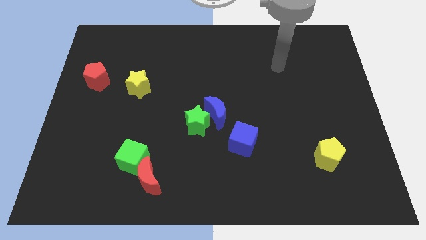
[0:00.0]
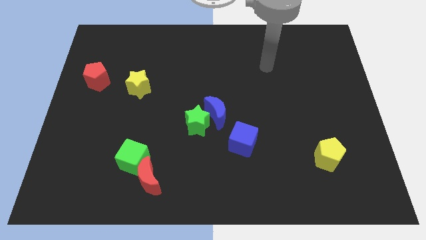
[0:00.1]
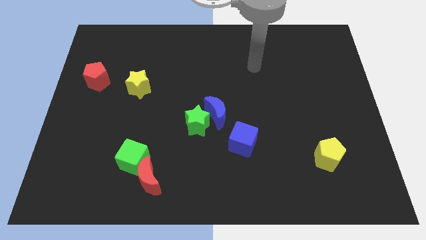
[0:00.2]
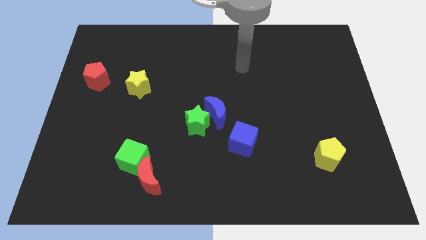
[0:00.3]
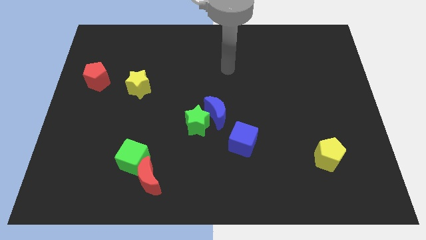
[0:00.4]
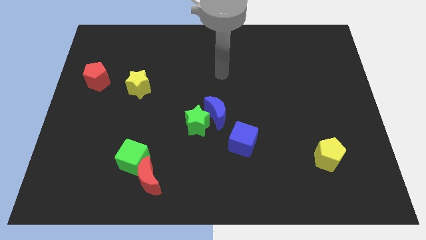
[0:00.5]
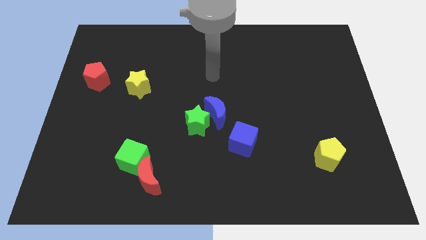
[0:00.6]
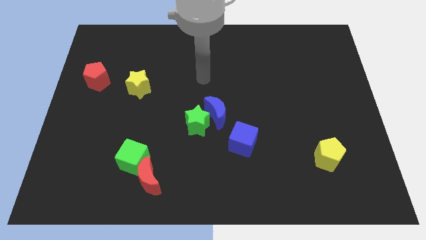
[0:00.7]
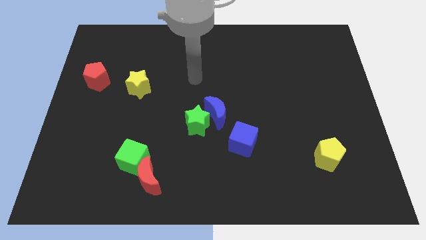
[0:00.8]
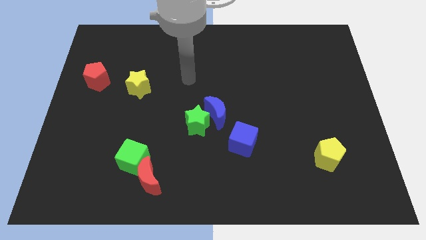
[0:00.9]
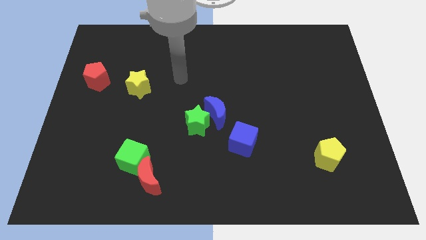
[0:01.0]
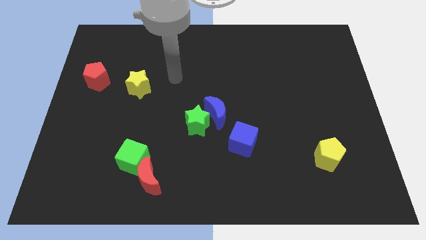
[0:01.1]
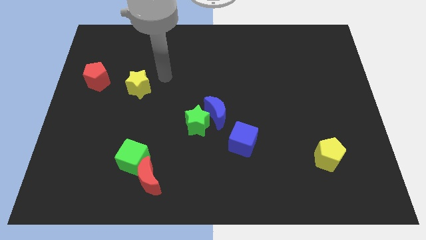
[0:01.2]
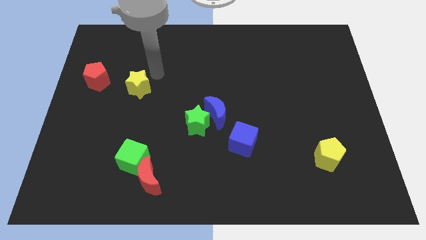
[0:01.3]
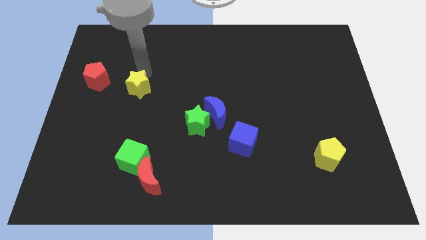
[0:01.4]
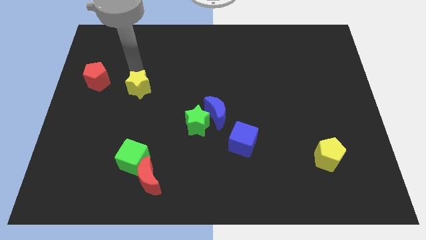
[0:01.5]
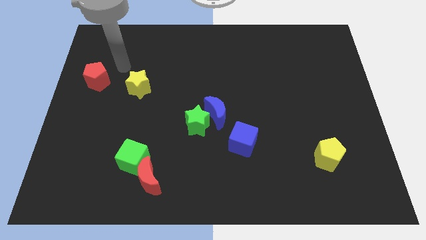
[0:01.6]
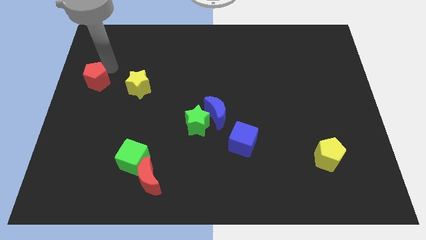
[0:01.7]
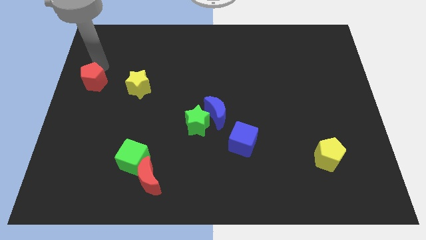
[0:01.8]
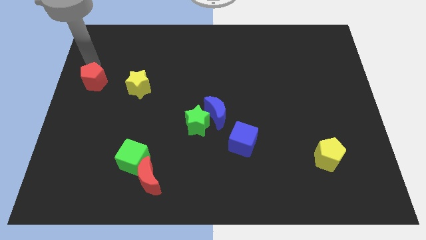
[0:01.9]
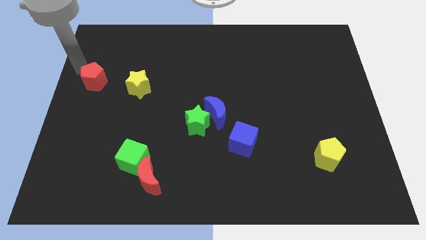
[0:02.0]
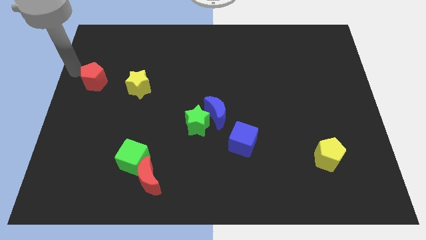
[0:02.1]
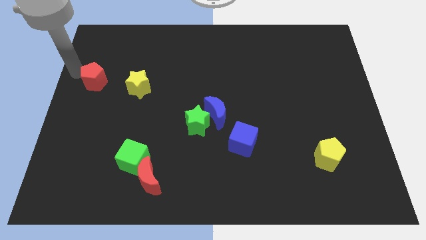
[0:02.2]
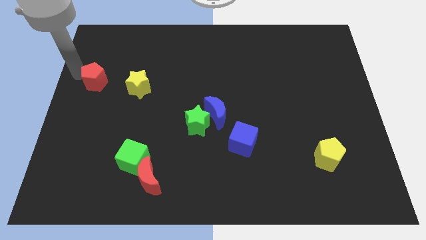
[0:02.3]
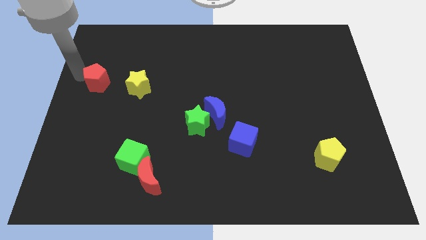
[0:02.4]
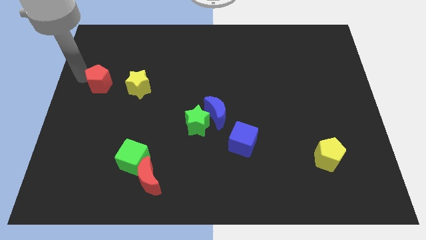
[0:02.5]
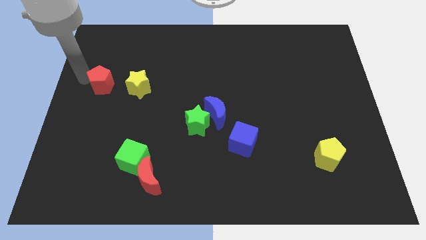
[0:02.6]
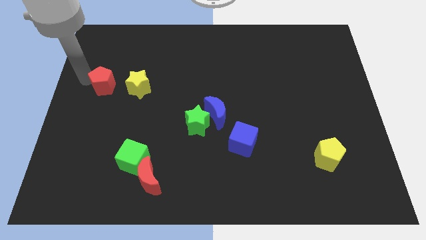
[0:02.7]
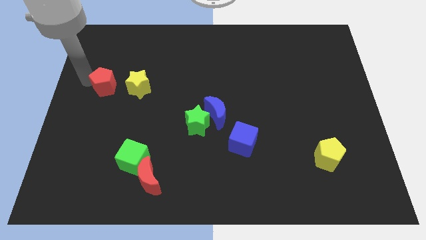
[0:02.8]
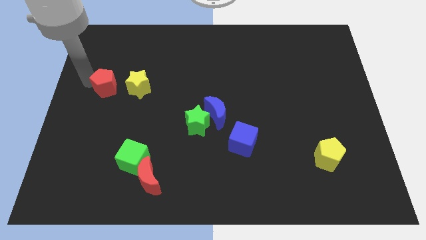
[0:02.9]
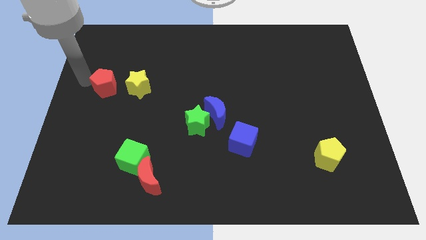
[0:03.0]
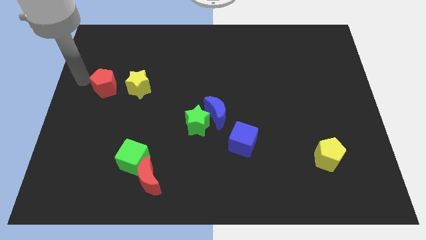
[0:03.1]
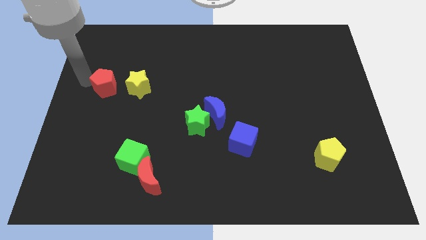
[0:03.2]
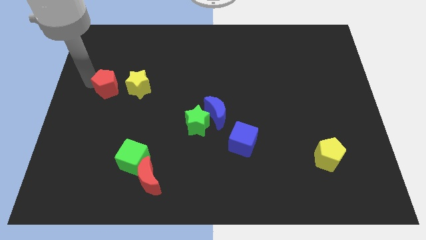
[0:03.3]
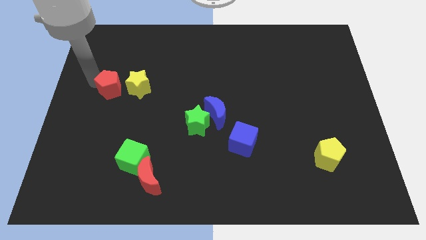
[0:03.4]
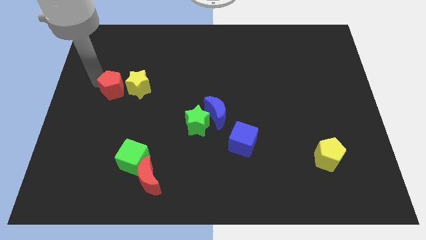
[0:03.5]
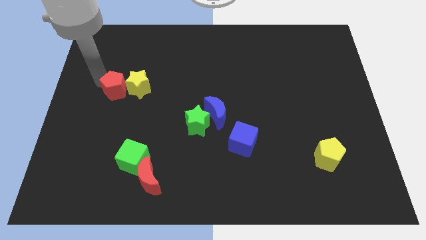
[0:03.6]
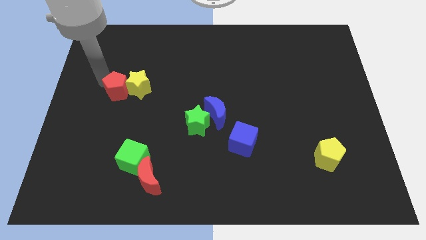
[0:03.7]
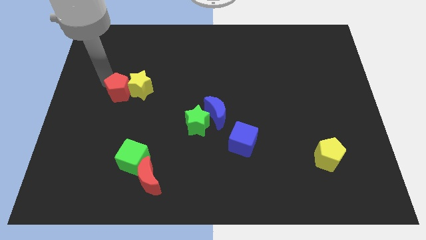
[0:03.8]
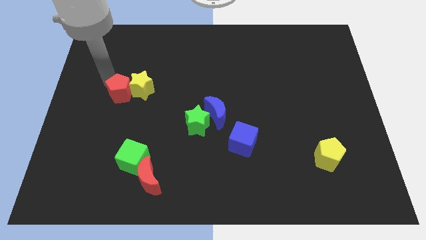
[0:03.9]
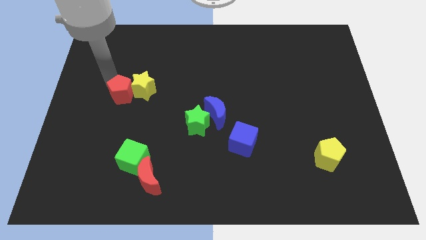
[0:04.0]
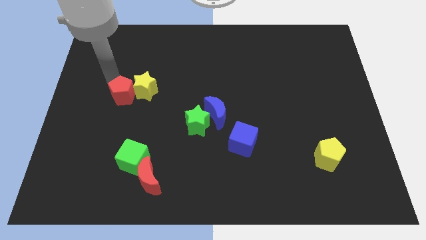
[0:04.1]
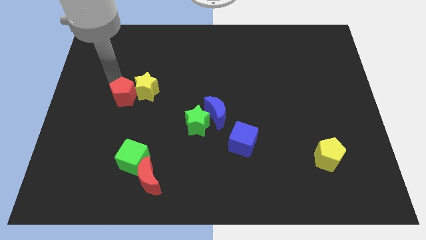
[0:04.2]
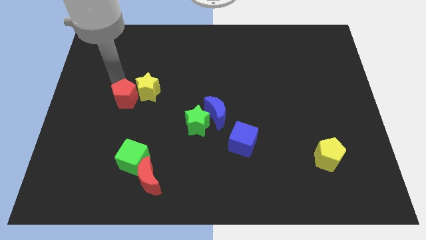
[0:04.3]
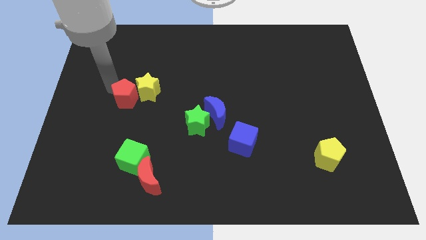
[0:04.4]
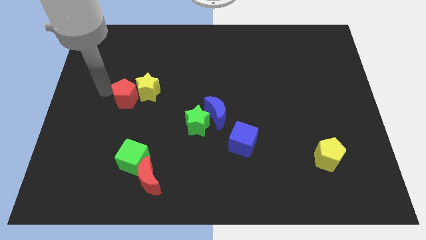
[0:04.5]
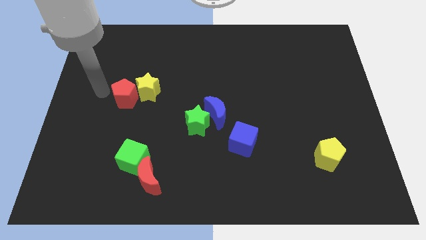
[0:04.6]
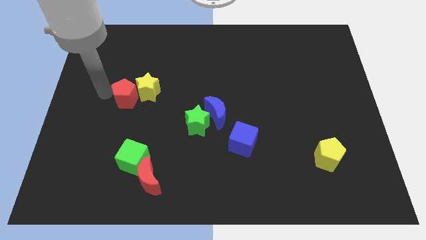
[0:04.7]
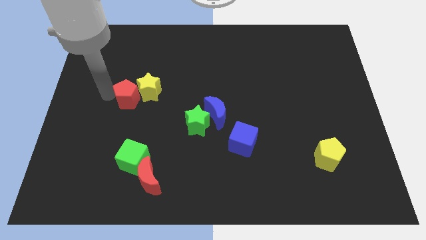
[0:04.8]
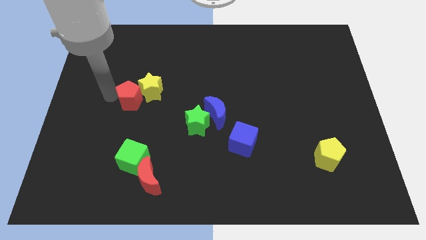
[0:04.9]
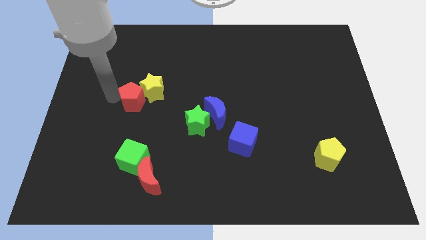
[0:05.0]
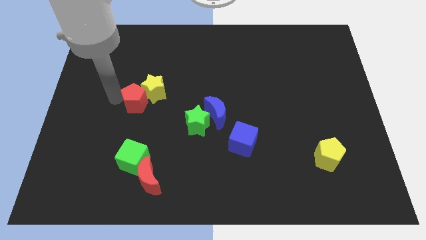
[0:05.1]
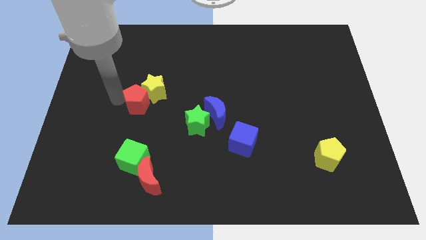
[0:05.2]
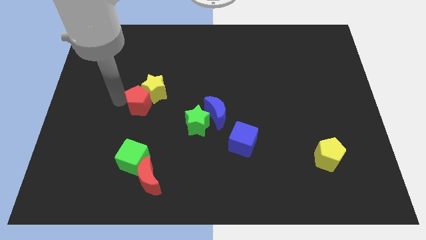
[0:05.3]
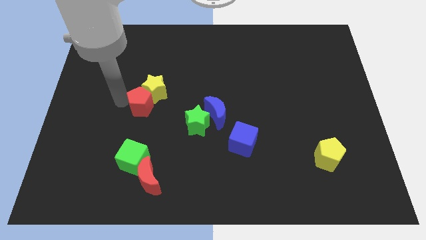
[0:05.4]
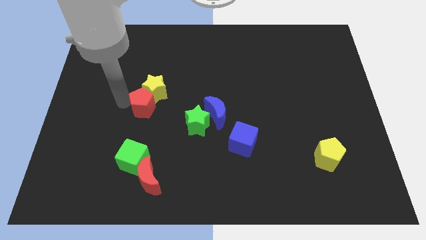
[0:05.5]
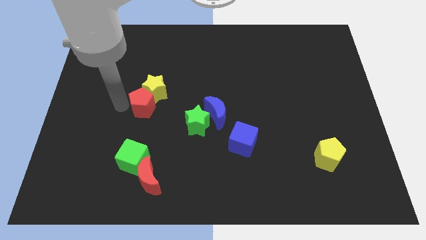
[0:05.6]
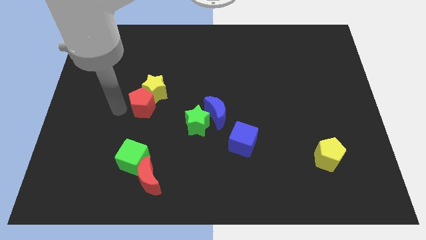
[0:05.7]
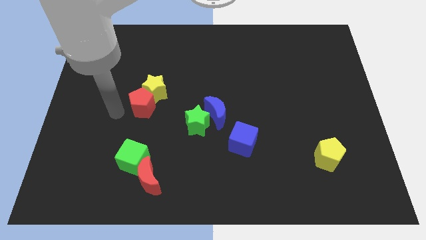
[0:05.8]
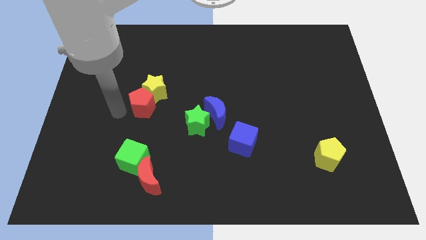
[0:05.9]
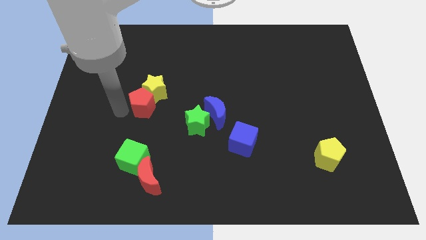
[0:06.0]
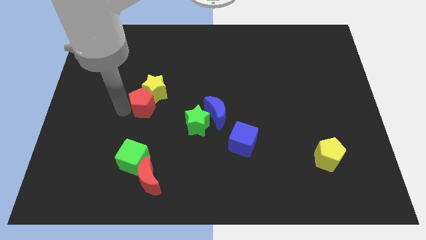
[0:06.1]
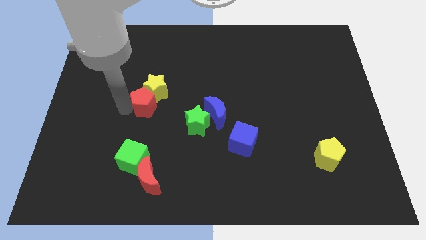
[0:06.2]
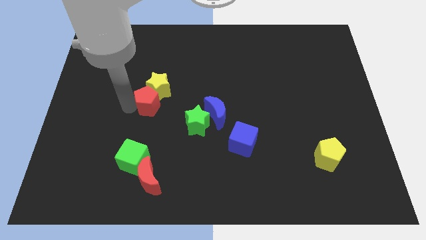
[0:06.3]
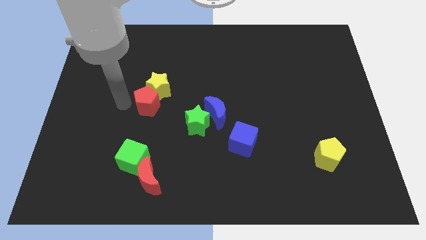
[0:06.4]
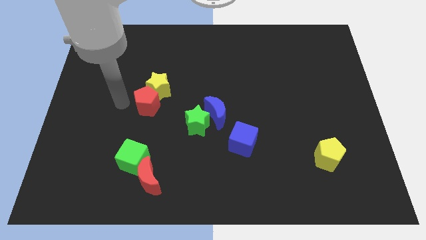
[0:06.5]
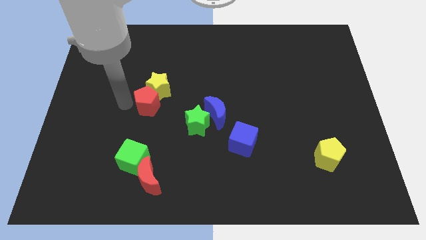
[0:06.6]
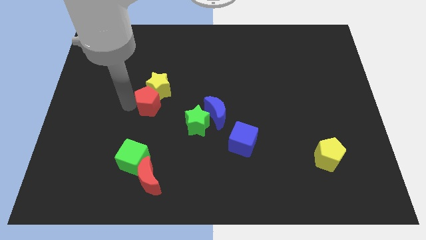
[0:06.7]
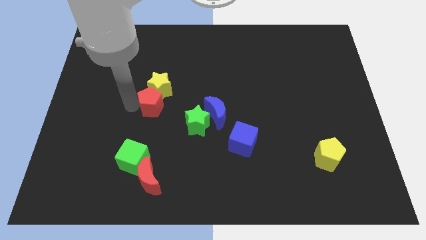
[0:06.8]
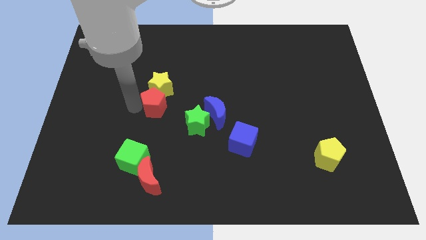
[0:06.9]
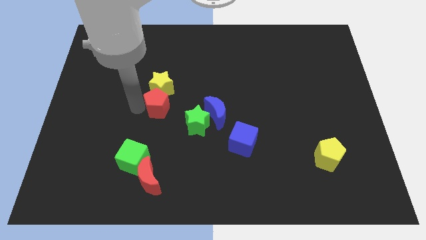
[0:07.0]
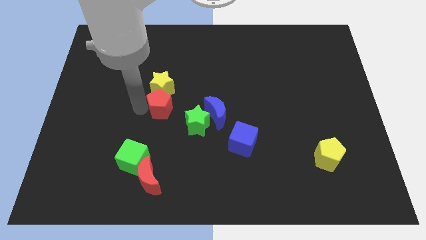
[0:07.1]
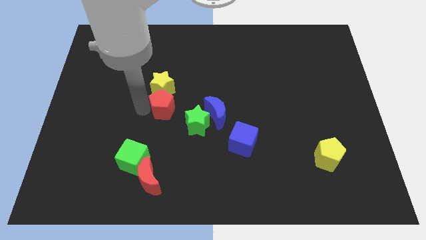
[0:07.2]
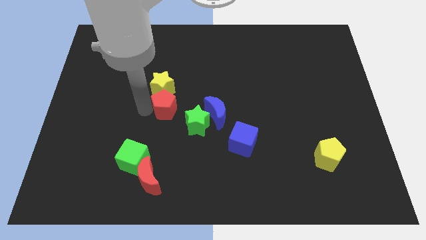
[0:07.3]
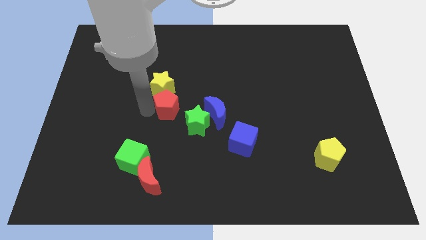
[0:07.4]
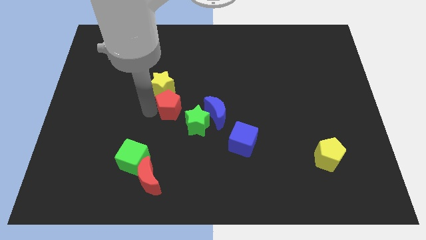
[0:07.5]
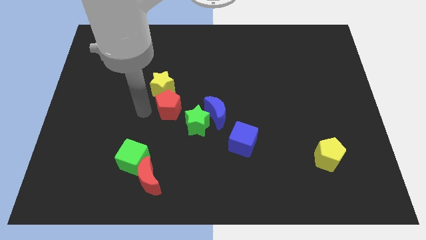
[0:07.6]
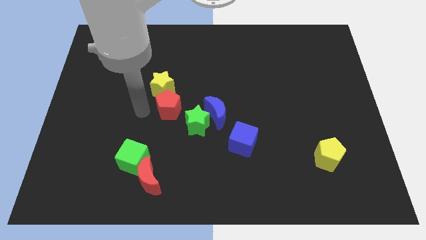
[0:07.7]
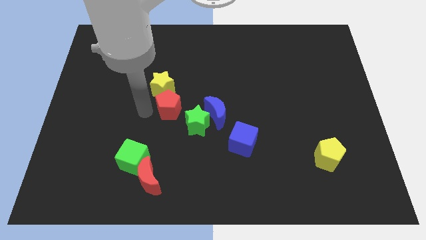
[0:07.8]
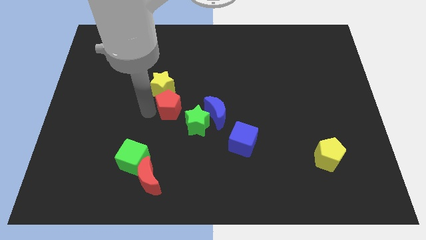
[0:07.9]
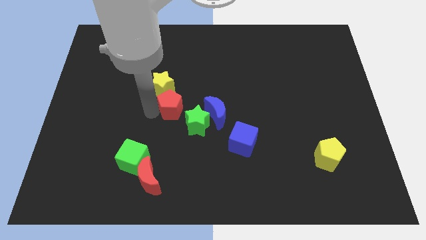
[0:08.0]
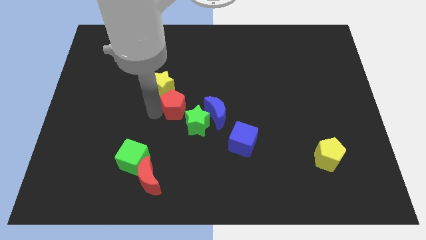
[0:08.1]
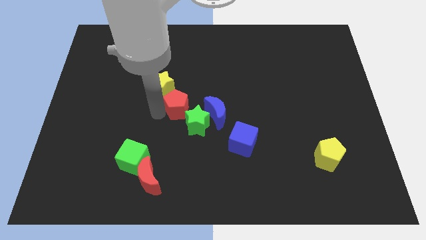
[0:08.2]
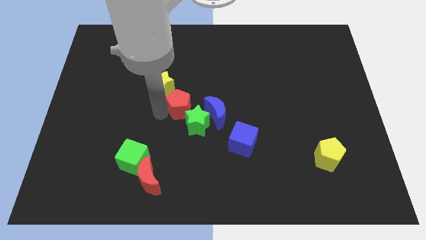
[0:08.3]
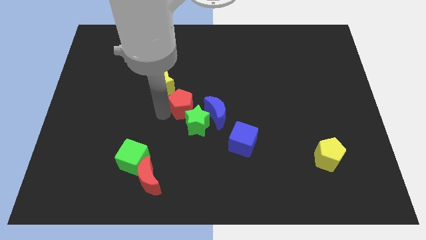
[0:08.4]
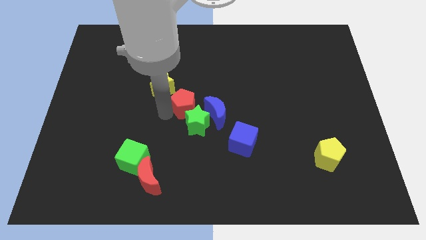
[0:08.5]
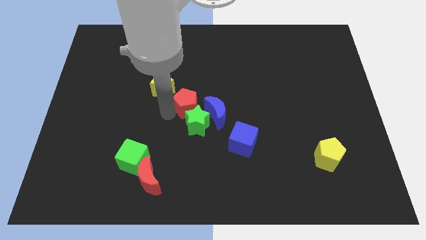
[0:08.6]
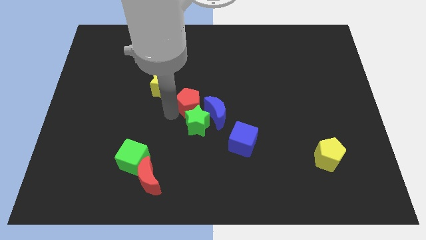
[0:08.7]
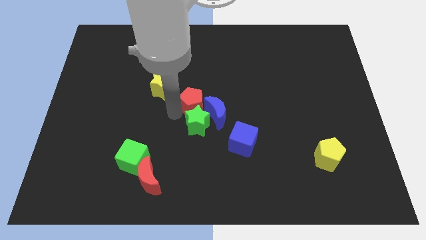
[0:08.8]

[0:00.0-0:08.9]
push the red pentagon next to the blue moon
